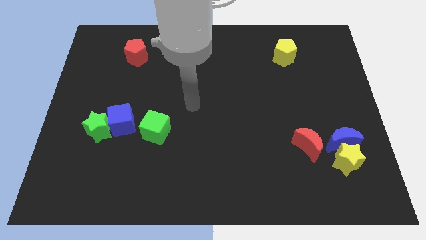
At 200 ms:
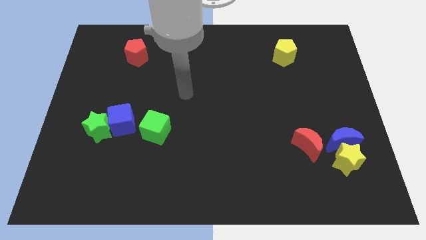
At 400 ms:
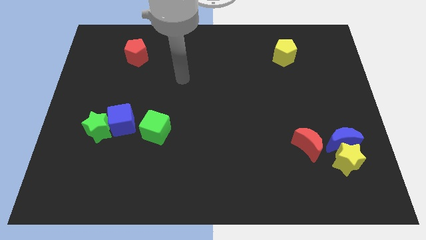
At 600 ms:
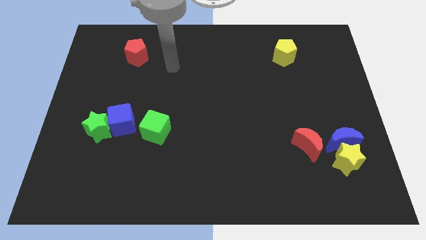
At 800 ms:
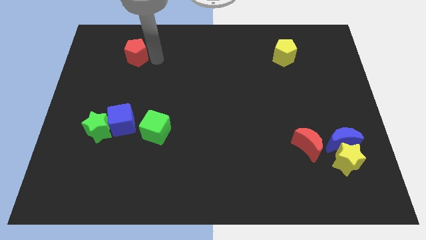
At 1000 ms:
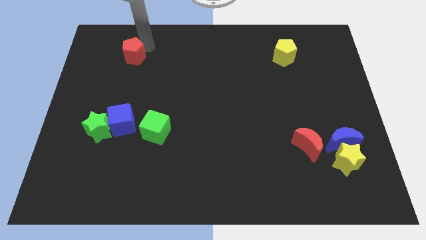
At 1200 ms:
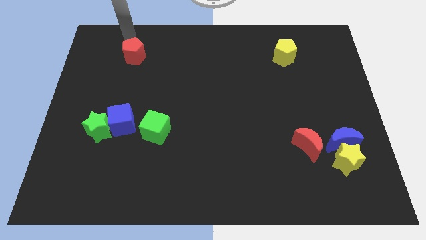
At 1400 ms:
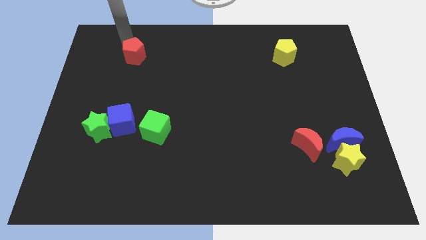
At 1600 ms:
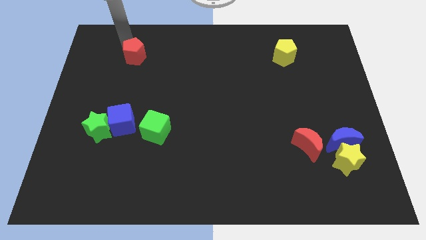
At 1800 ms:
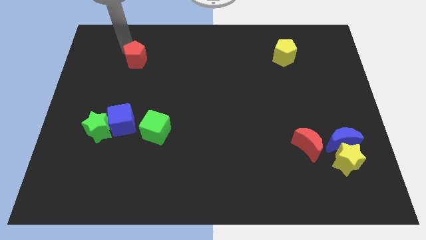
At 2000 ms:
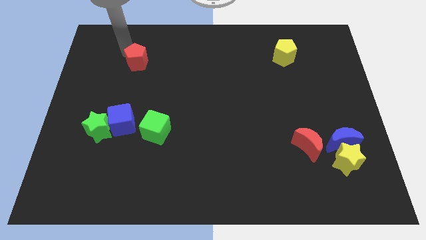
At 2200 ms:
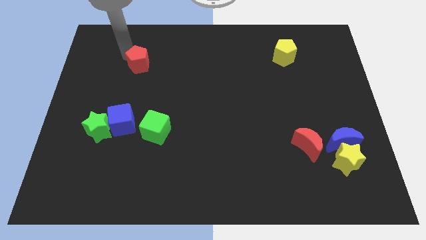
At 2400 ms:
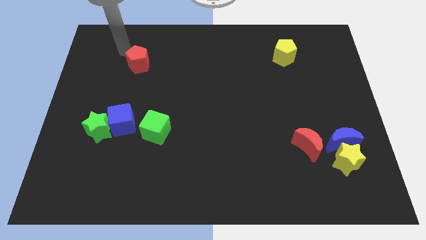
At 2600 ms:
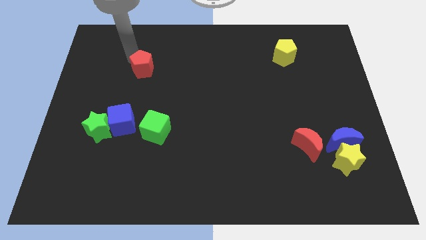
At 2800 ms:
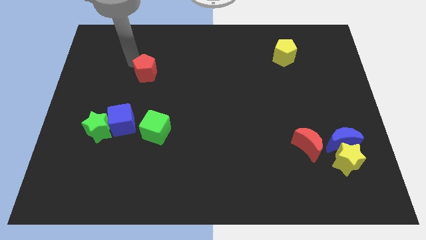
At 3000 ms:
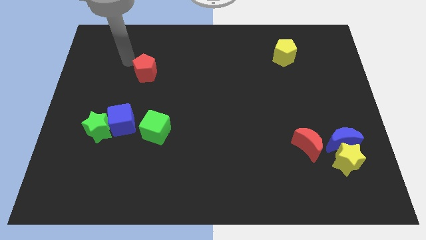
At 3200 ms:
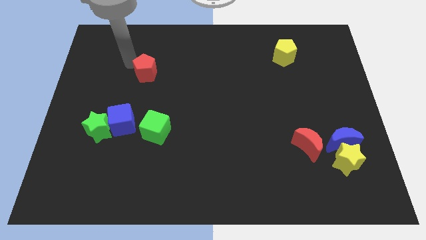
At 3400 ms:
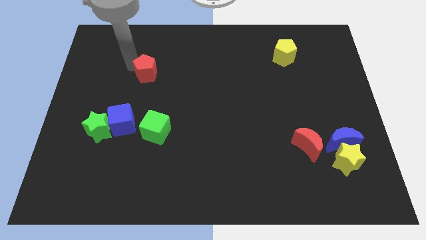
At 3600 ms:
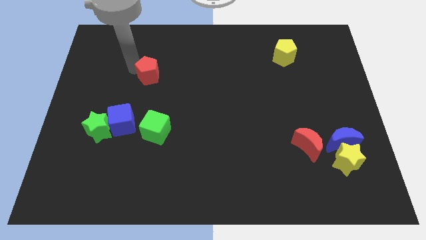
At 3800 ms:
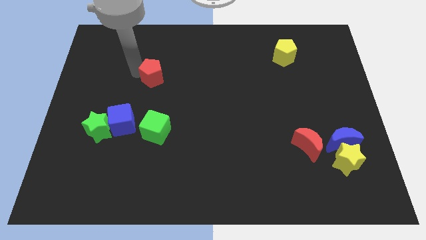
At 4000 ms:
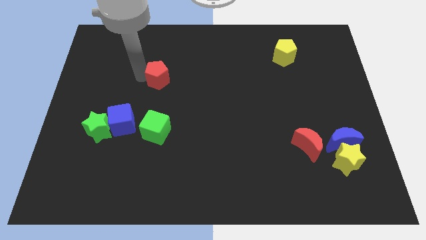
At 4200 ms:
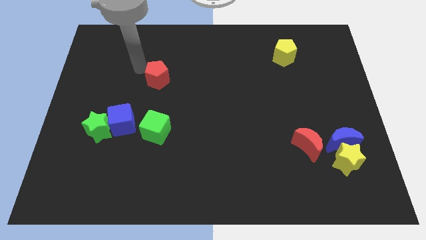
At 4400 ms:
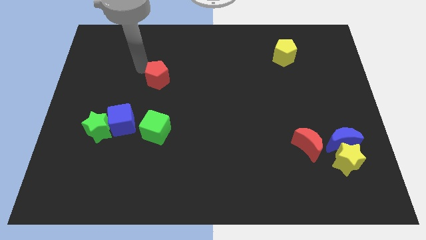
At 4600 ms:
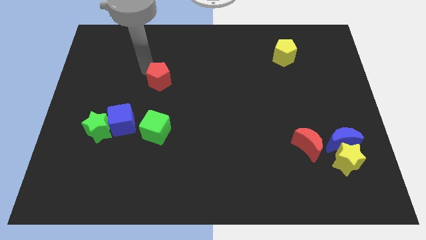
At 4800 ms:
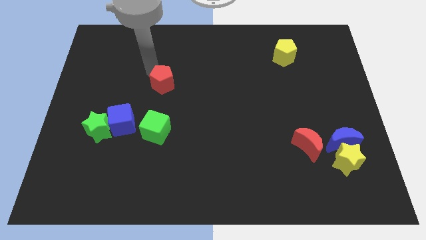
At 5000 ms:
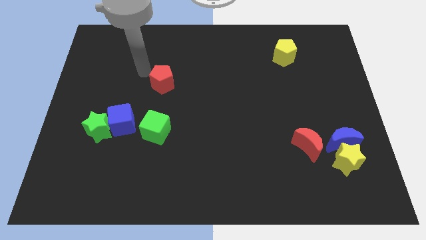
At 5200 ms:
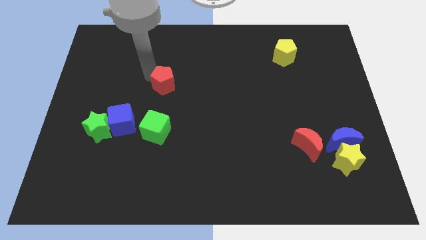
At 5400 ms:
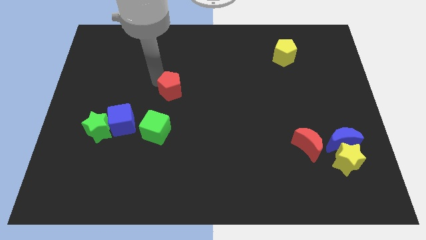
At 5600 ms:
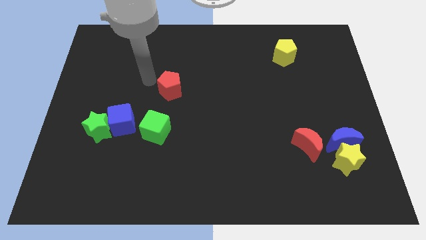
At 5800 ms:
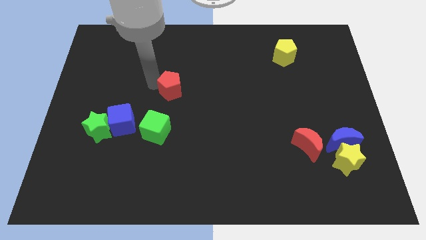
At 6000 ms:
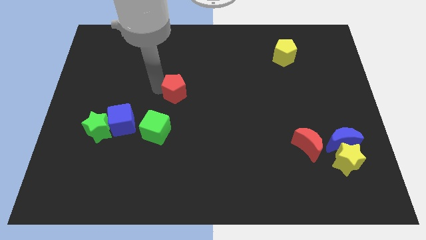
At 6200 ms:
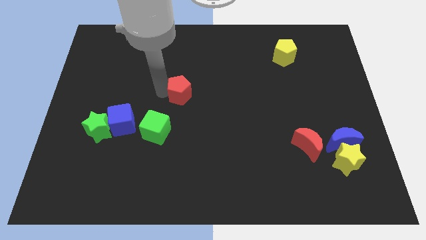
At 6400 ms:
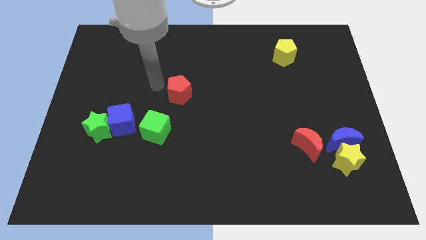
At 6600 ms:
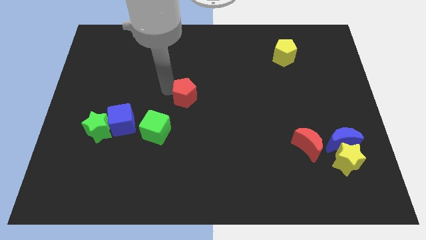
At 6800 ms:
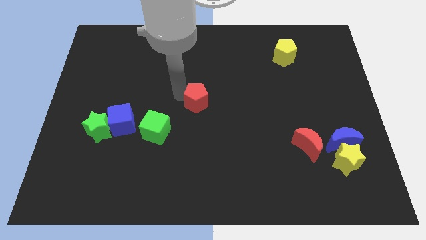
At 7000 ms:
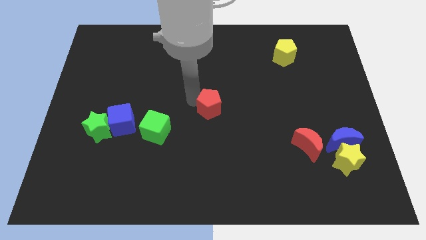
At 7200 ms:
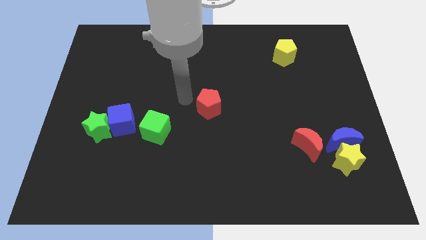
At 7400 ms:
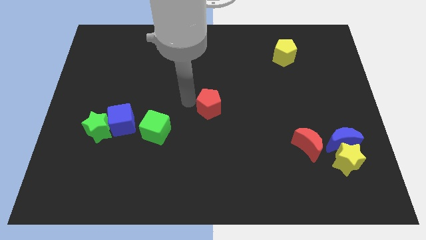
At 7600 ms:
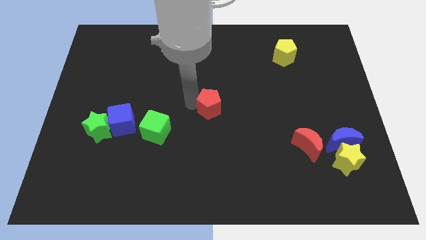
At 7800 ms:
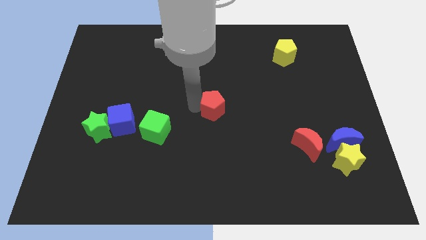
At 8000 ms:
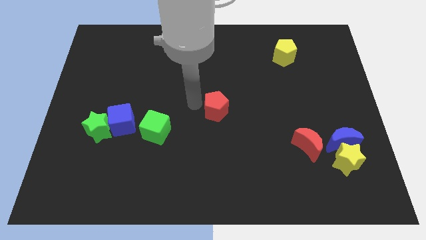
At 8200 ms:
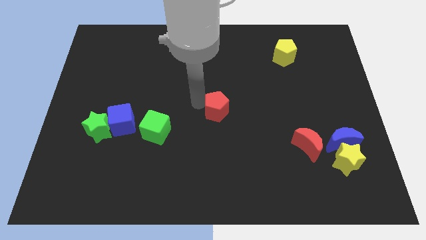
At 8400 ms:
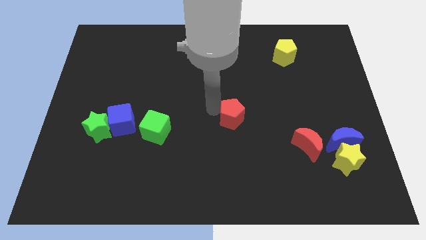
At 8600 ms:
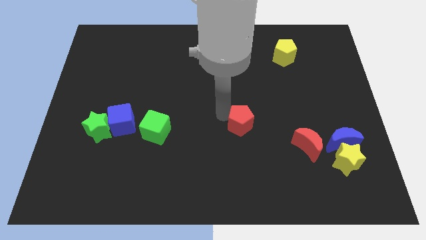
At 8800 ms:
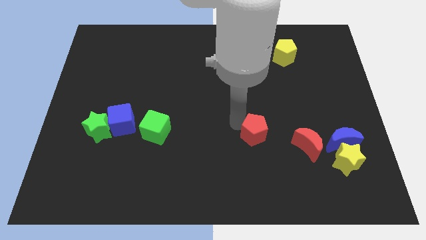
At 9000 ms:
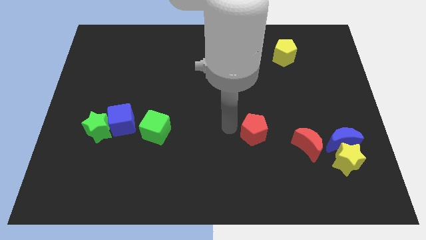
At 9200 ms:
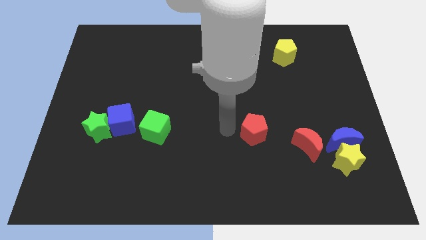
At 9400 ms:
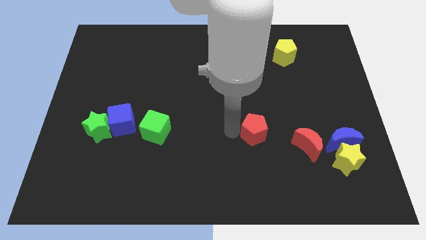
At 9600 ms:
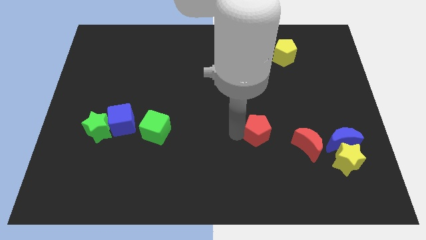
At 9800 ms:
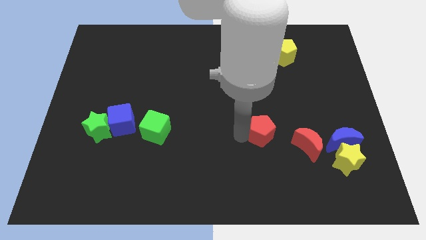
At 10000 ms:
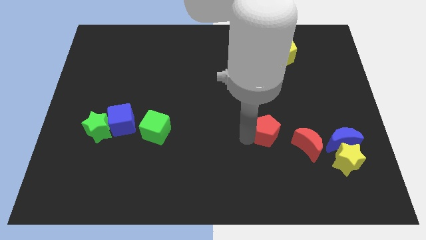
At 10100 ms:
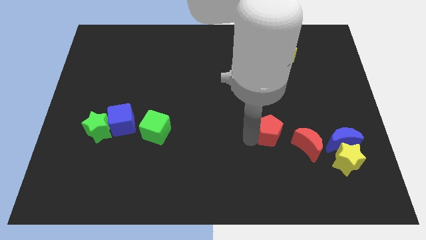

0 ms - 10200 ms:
move the red pentagon to the left side of the blue moon

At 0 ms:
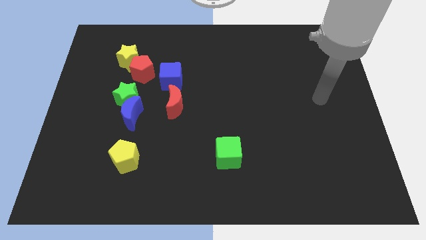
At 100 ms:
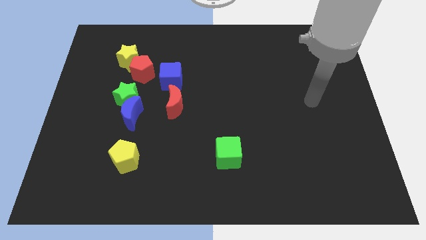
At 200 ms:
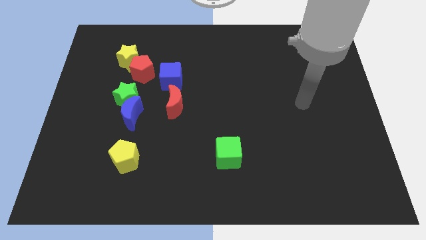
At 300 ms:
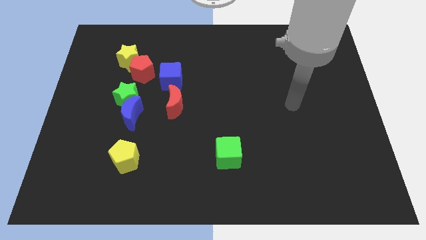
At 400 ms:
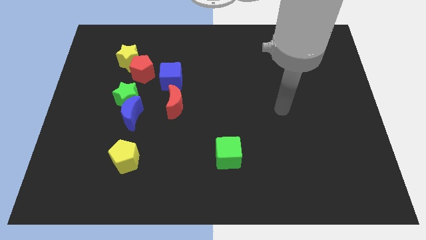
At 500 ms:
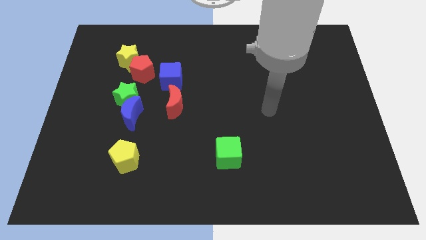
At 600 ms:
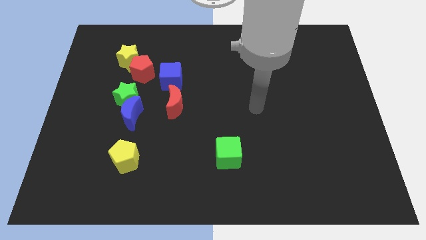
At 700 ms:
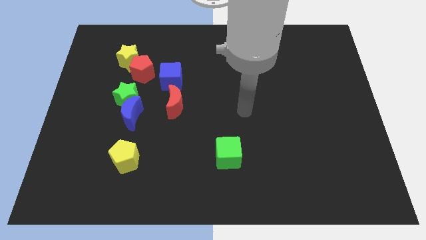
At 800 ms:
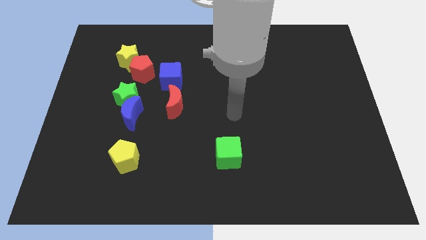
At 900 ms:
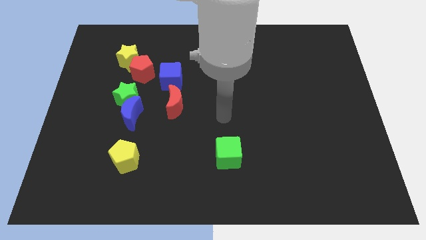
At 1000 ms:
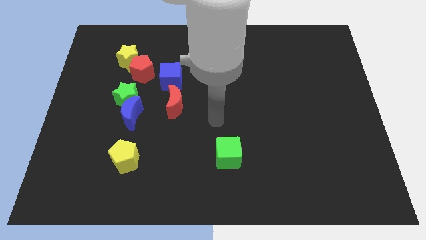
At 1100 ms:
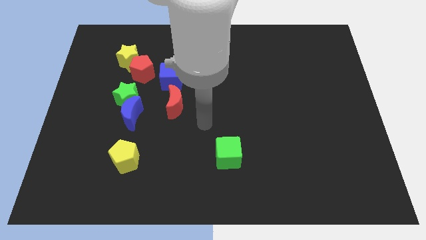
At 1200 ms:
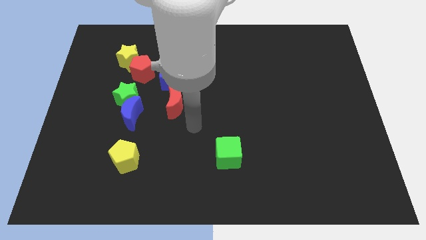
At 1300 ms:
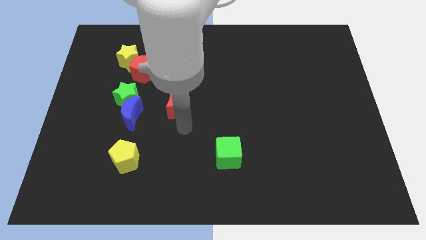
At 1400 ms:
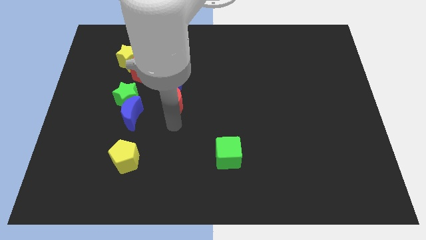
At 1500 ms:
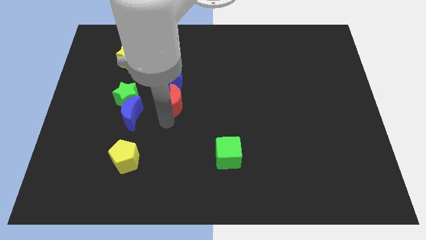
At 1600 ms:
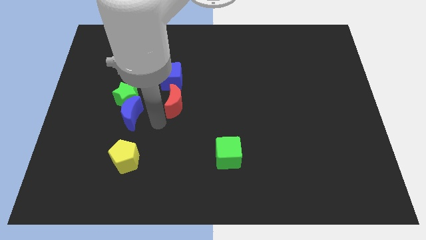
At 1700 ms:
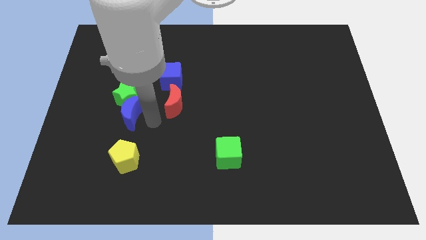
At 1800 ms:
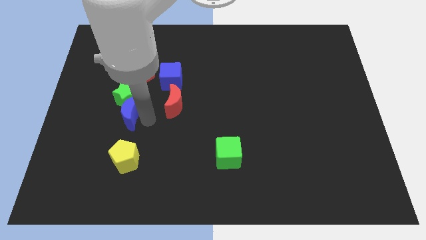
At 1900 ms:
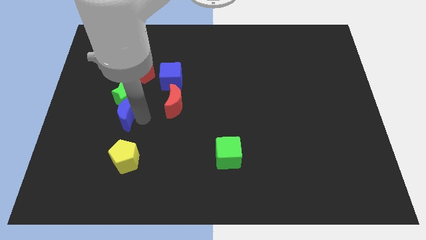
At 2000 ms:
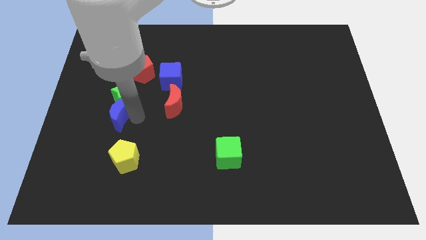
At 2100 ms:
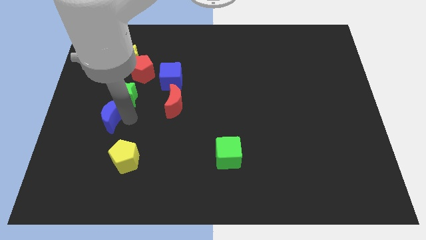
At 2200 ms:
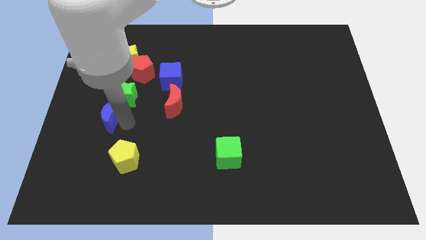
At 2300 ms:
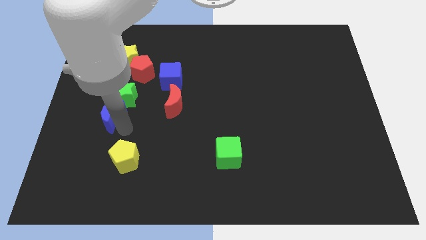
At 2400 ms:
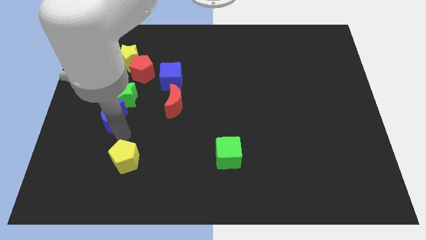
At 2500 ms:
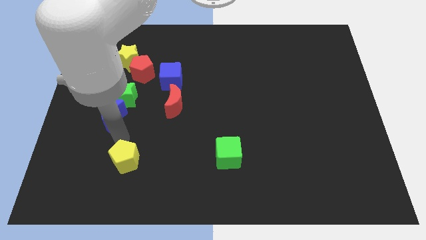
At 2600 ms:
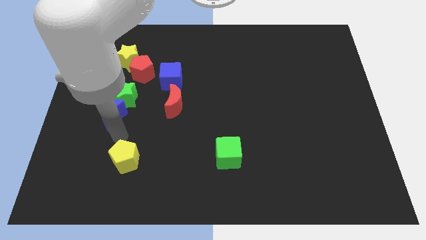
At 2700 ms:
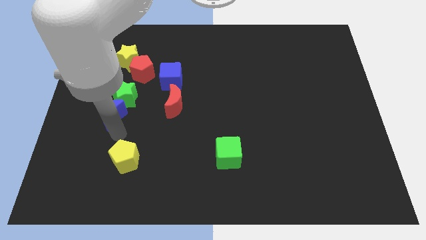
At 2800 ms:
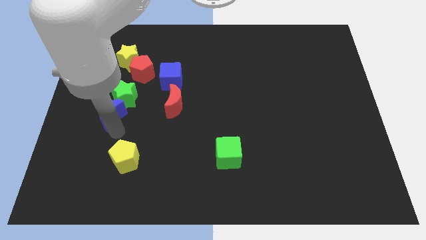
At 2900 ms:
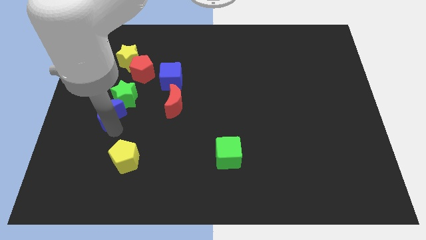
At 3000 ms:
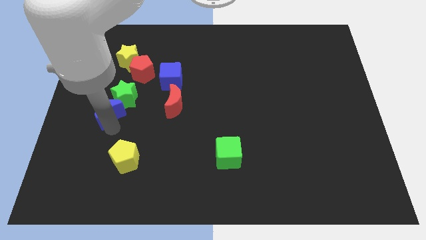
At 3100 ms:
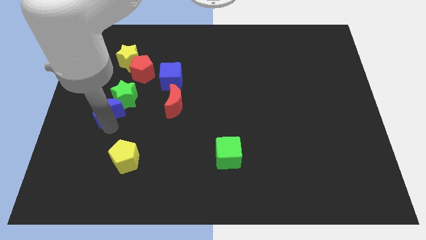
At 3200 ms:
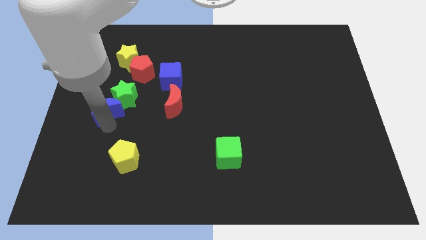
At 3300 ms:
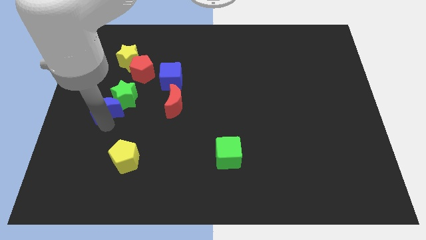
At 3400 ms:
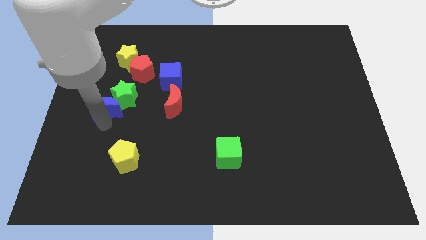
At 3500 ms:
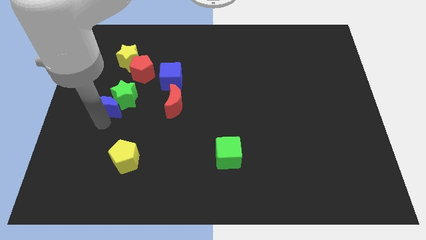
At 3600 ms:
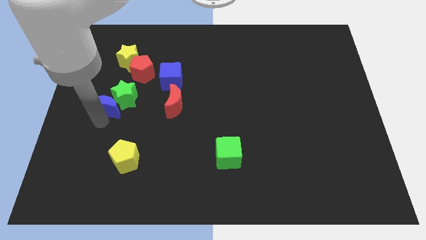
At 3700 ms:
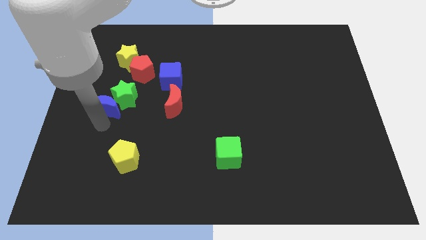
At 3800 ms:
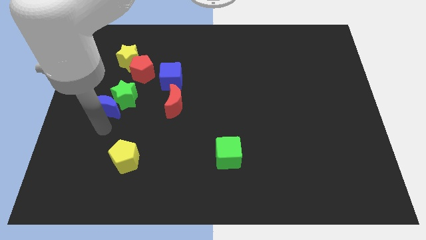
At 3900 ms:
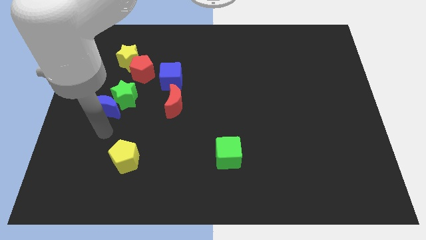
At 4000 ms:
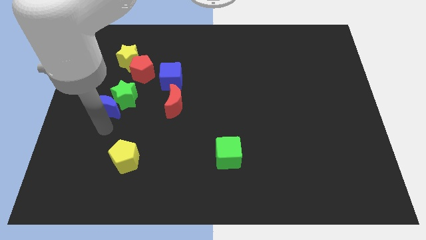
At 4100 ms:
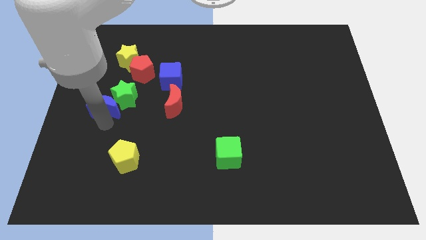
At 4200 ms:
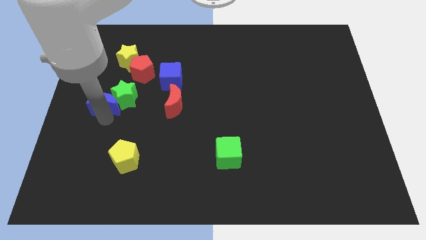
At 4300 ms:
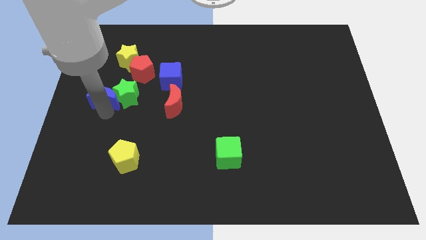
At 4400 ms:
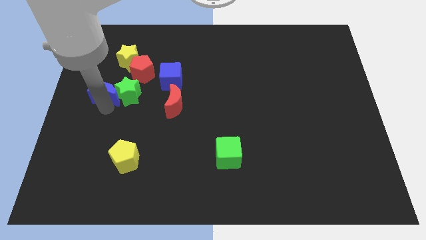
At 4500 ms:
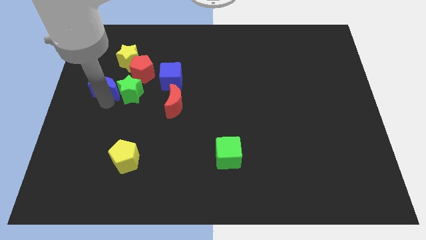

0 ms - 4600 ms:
push the blue moon to the bottom left of the yellow star
